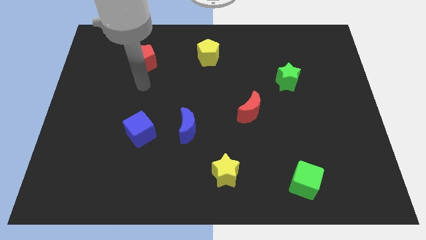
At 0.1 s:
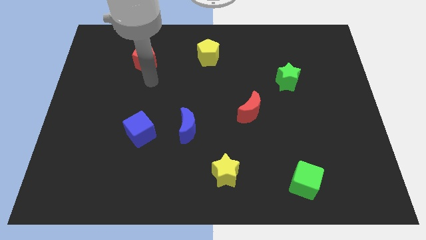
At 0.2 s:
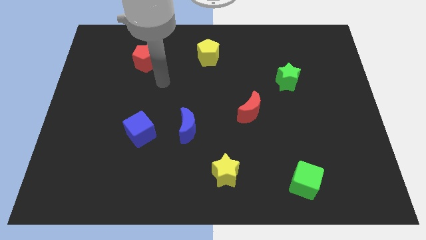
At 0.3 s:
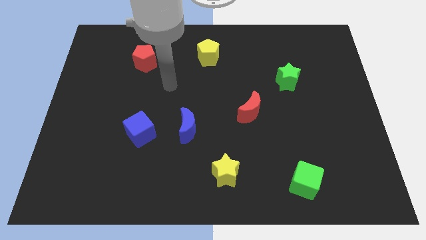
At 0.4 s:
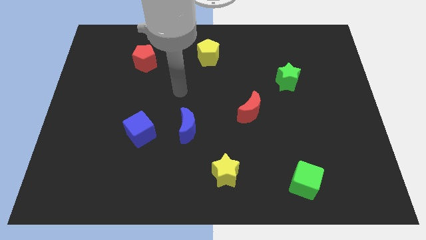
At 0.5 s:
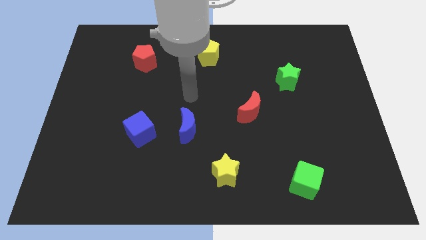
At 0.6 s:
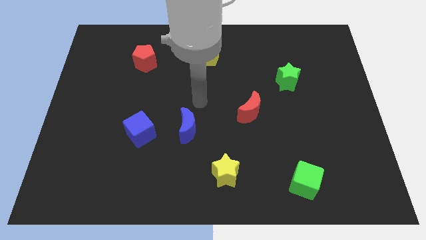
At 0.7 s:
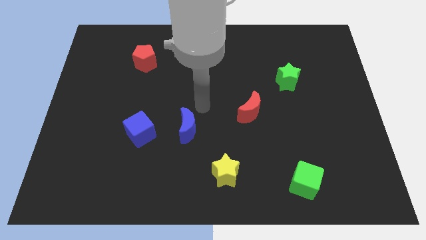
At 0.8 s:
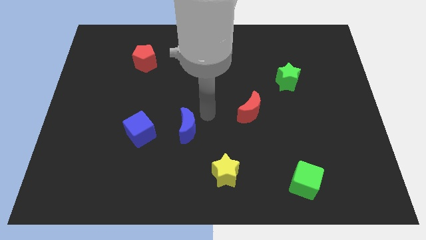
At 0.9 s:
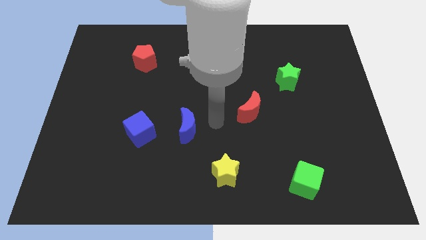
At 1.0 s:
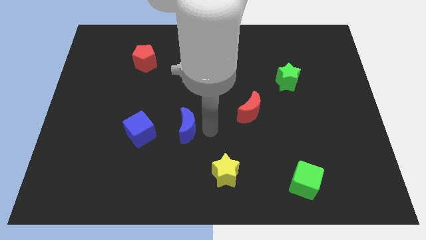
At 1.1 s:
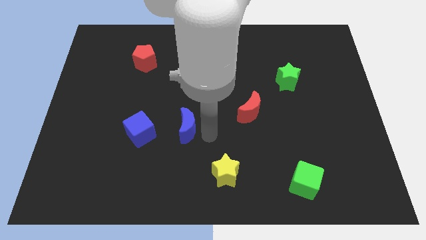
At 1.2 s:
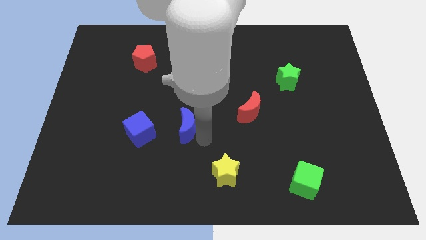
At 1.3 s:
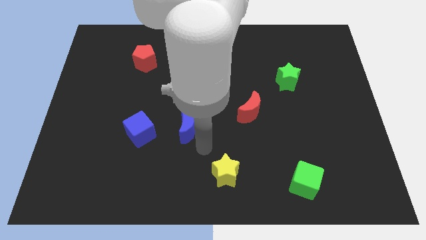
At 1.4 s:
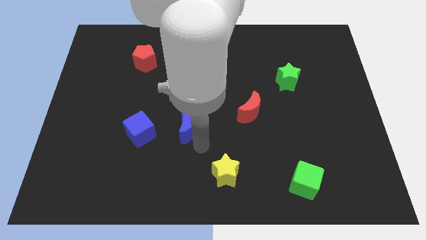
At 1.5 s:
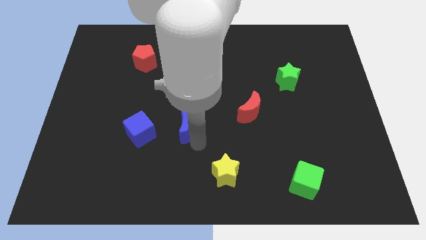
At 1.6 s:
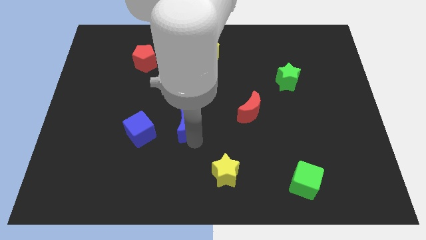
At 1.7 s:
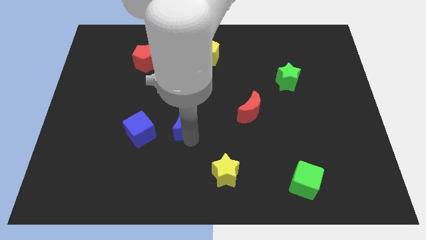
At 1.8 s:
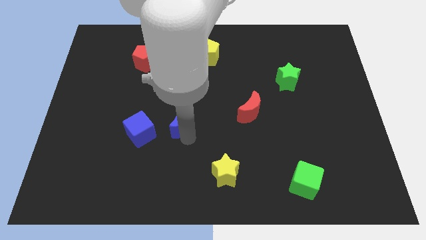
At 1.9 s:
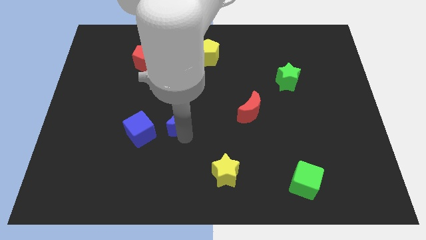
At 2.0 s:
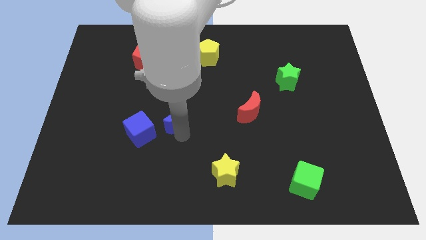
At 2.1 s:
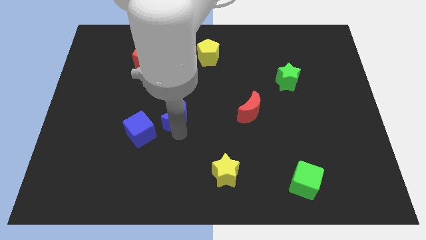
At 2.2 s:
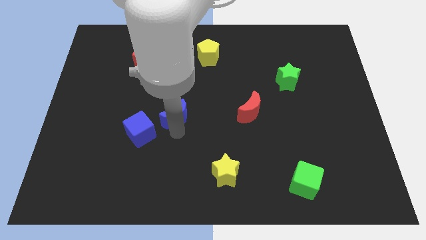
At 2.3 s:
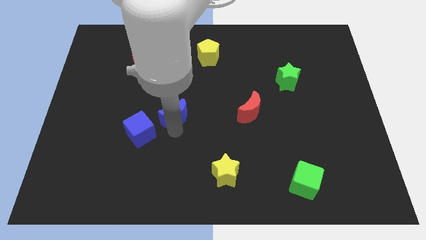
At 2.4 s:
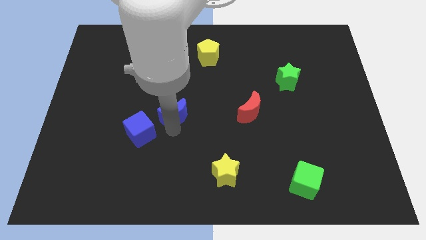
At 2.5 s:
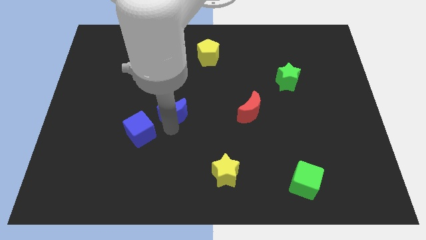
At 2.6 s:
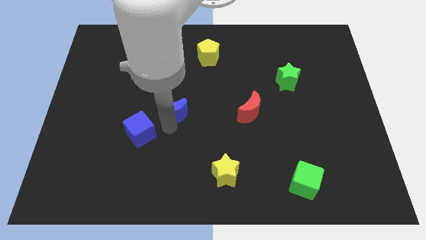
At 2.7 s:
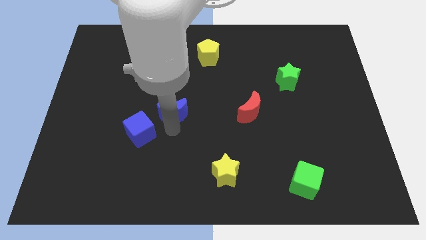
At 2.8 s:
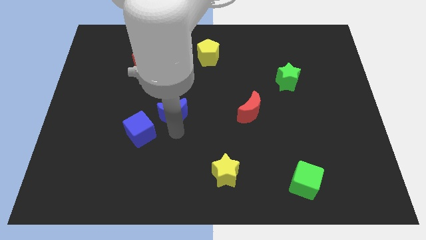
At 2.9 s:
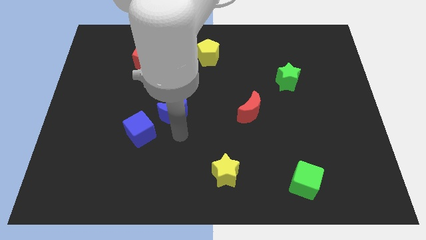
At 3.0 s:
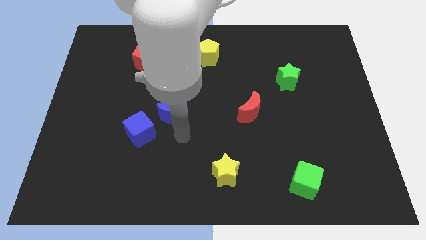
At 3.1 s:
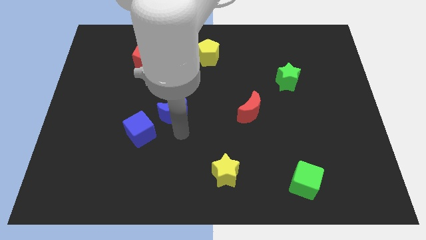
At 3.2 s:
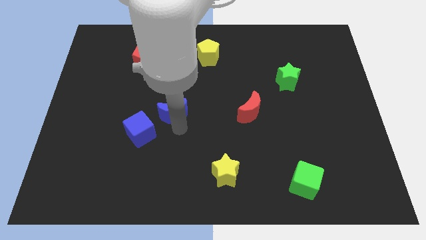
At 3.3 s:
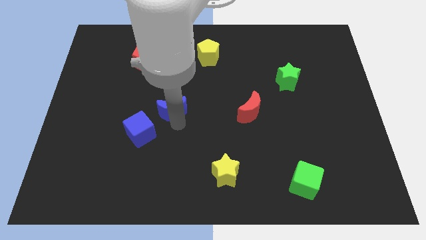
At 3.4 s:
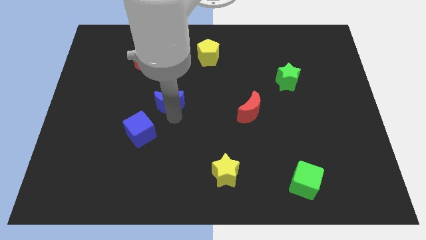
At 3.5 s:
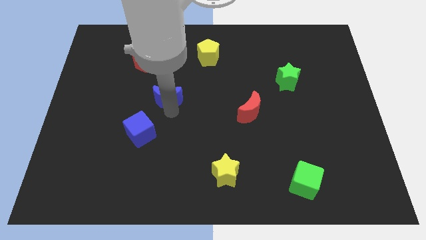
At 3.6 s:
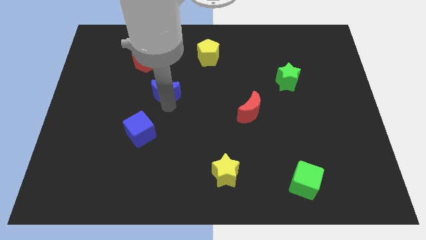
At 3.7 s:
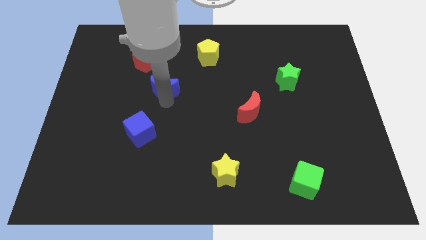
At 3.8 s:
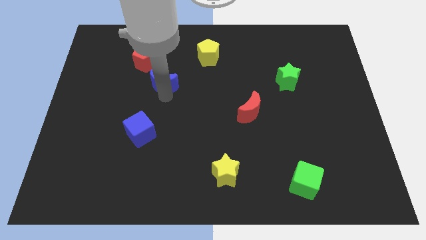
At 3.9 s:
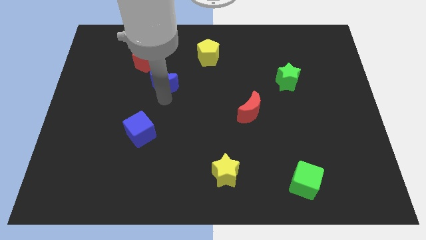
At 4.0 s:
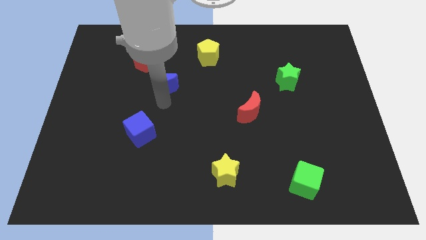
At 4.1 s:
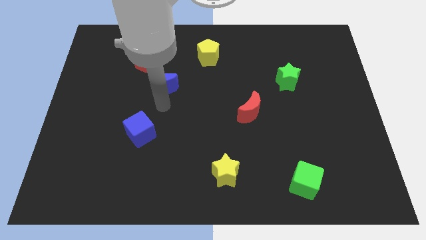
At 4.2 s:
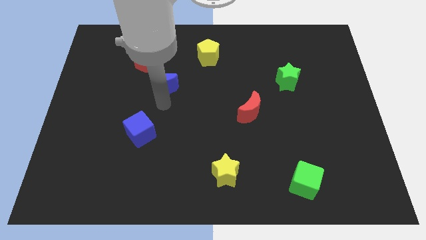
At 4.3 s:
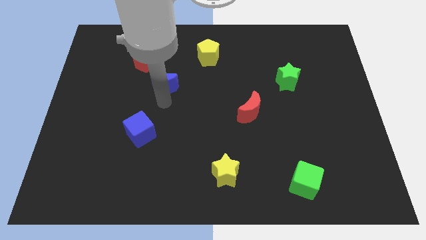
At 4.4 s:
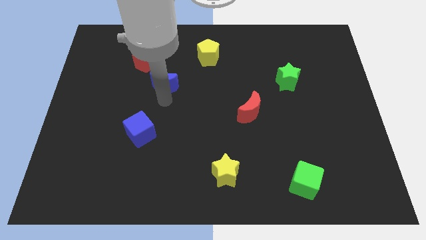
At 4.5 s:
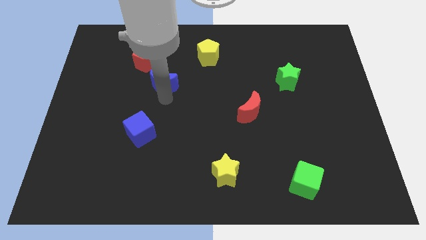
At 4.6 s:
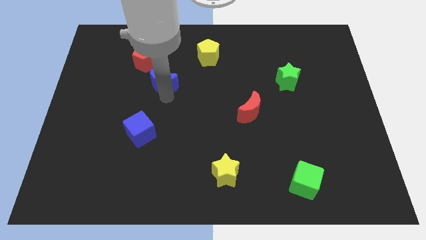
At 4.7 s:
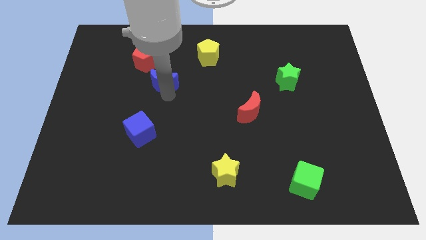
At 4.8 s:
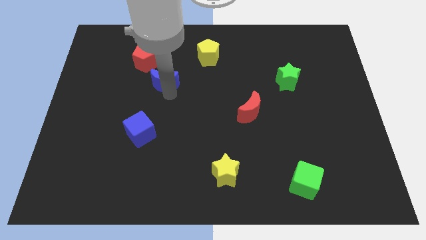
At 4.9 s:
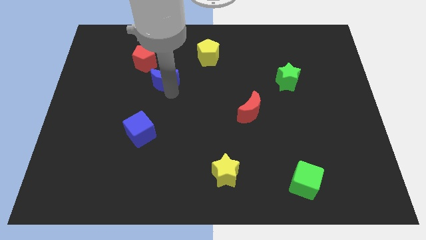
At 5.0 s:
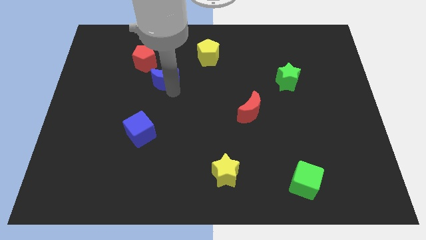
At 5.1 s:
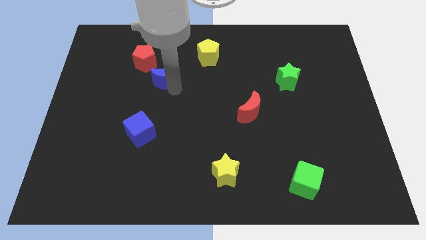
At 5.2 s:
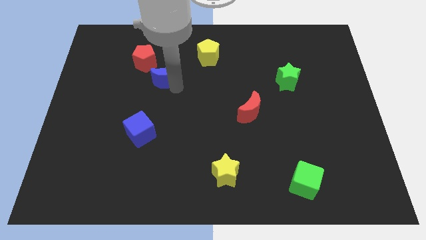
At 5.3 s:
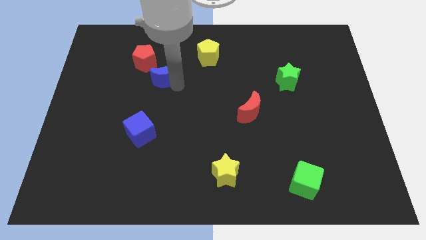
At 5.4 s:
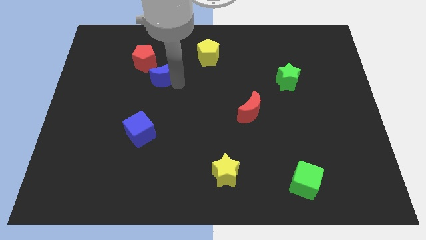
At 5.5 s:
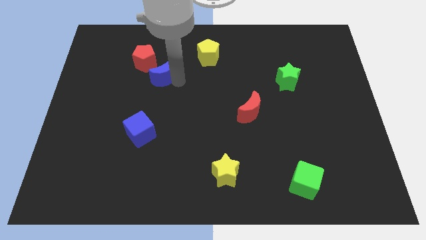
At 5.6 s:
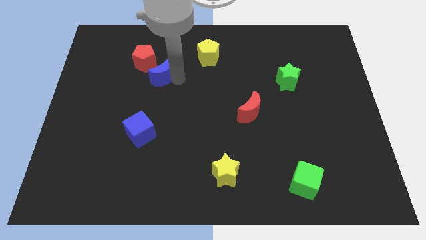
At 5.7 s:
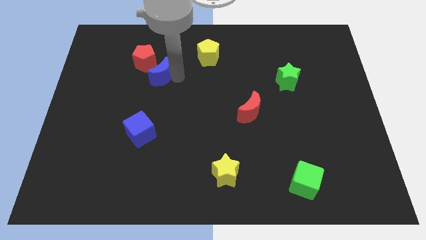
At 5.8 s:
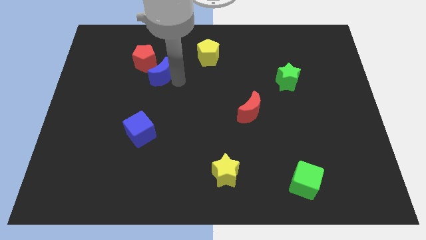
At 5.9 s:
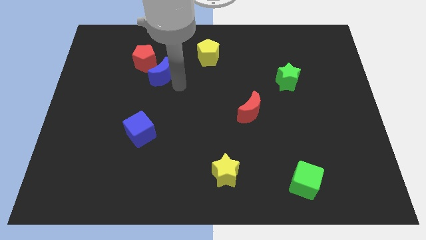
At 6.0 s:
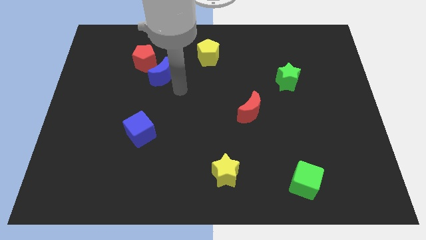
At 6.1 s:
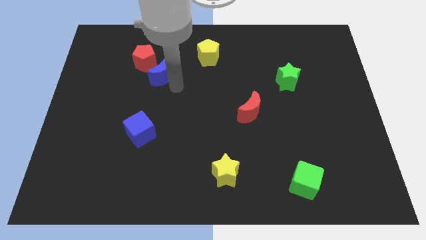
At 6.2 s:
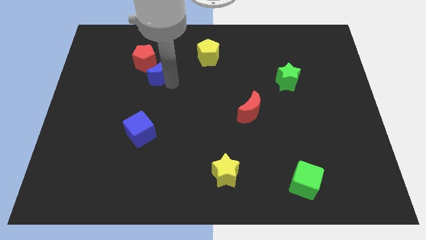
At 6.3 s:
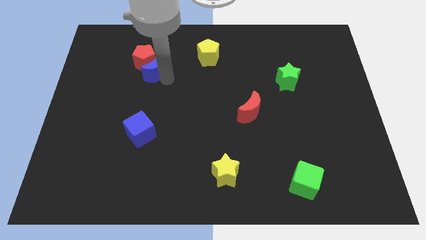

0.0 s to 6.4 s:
slide the blue moon towards the red pentagon
